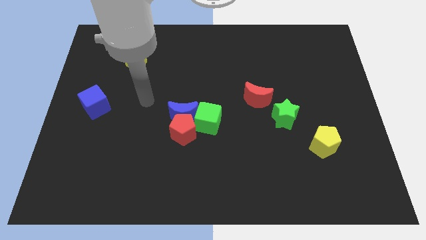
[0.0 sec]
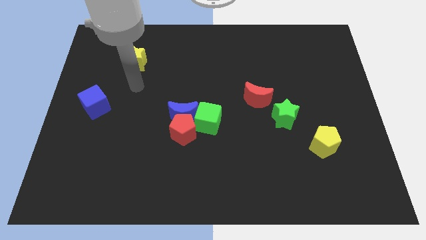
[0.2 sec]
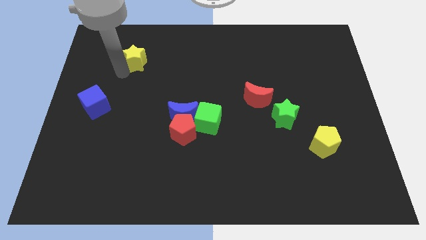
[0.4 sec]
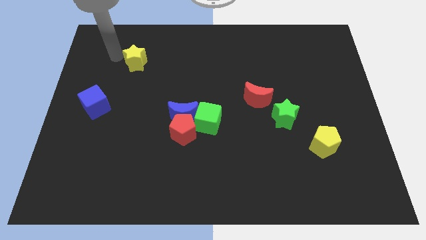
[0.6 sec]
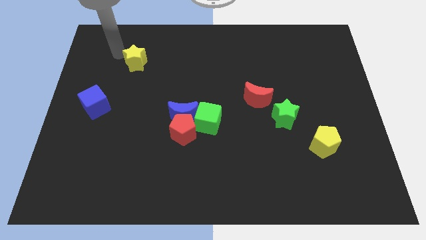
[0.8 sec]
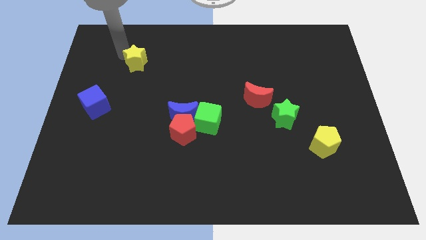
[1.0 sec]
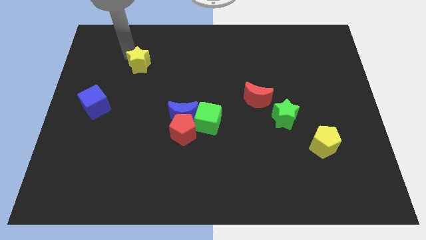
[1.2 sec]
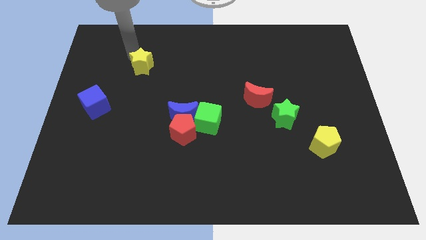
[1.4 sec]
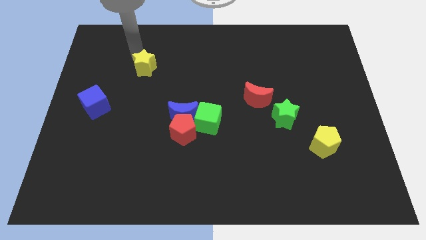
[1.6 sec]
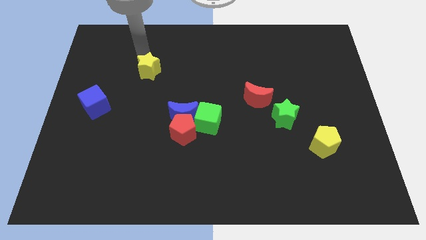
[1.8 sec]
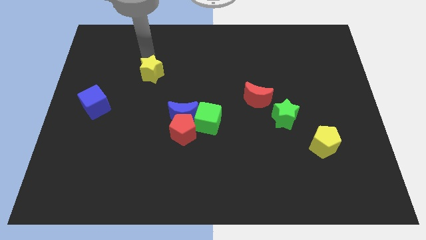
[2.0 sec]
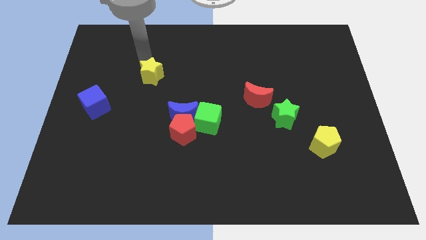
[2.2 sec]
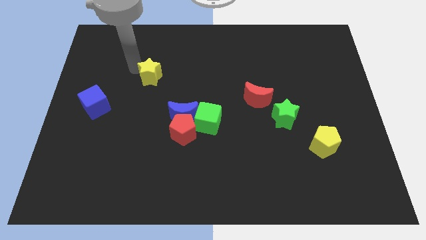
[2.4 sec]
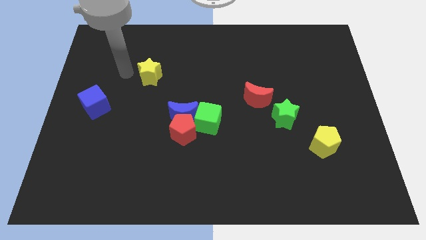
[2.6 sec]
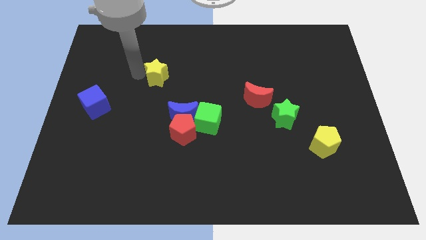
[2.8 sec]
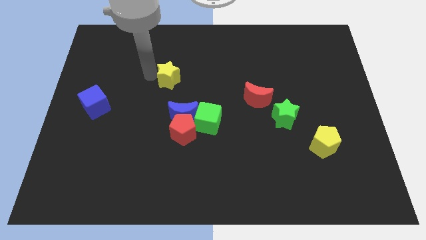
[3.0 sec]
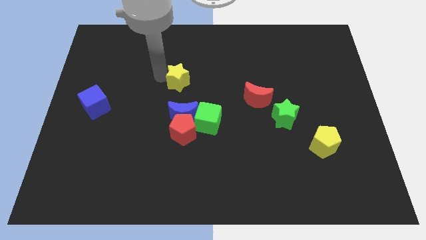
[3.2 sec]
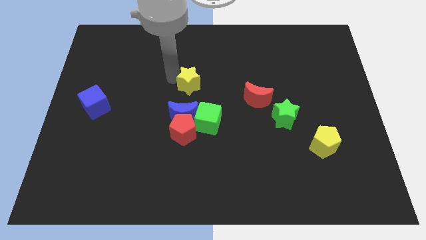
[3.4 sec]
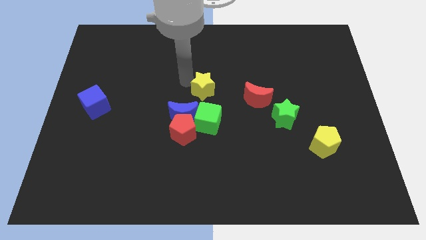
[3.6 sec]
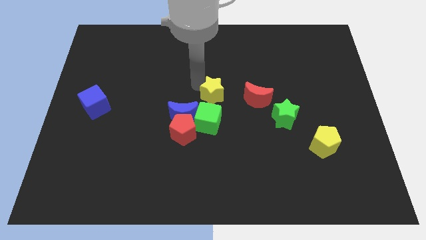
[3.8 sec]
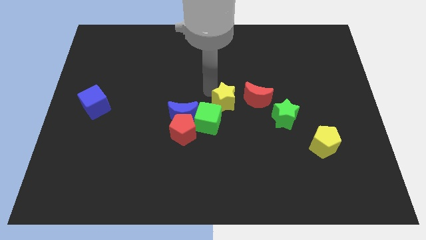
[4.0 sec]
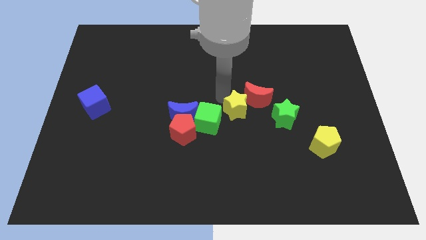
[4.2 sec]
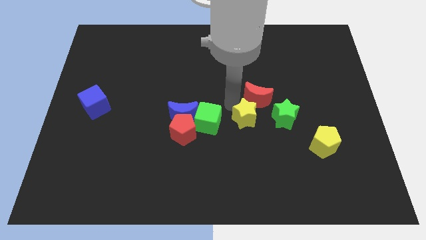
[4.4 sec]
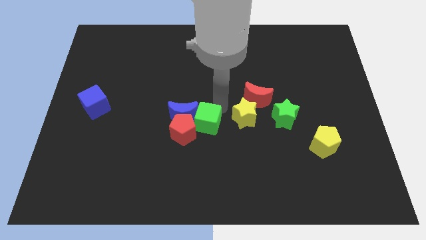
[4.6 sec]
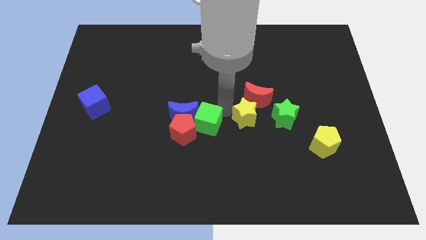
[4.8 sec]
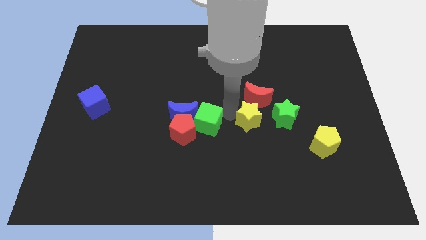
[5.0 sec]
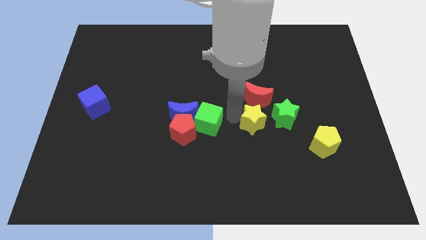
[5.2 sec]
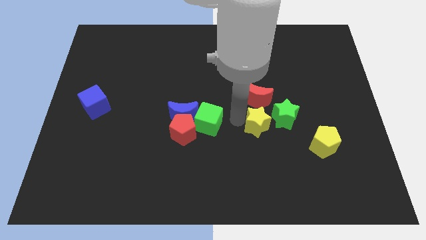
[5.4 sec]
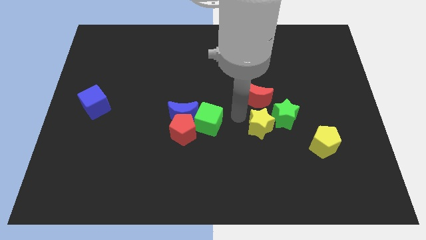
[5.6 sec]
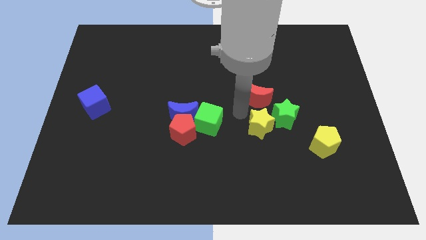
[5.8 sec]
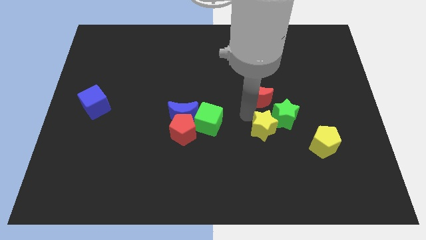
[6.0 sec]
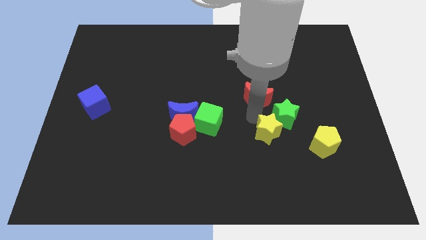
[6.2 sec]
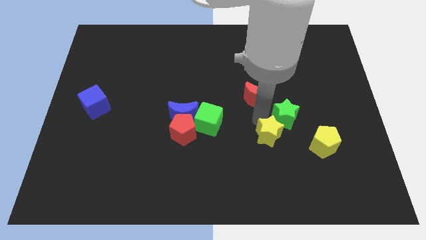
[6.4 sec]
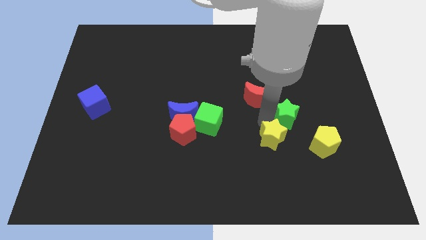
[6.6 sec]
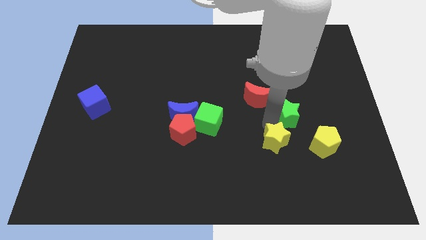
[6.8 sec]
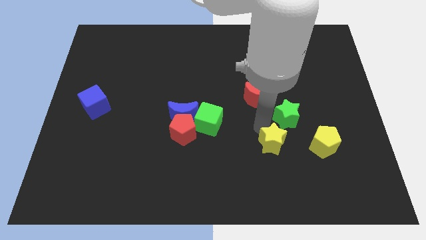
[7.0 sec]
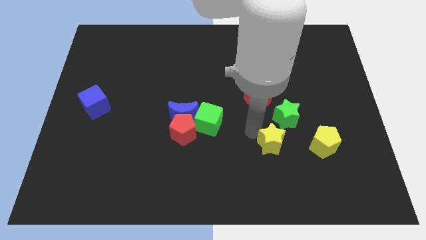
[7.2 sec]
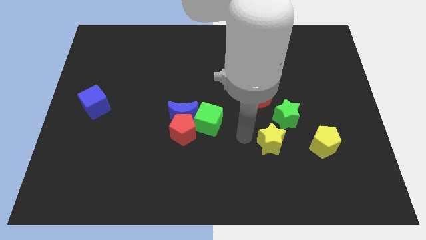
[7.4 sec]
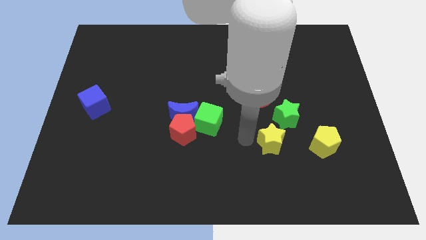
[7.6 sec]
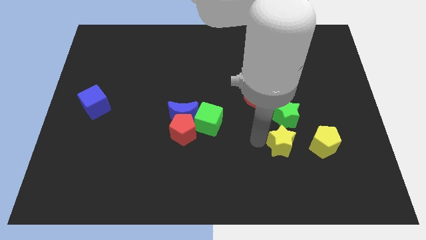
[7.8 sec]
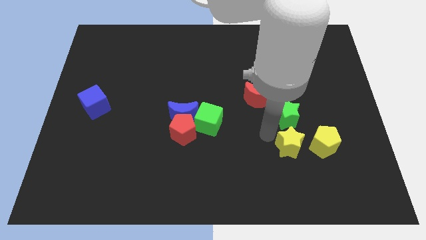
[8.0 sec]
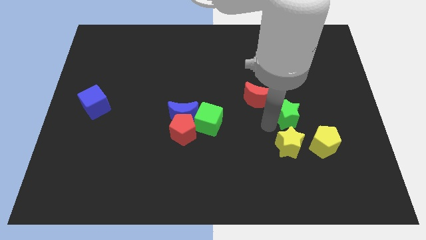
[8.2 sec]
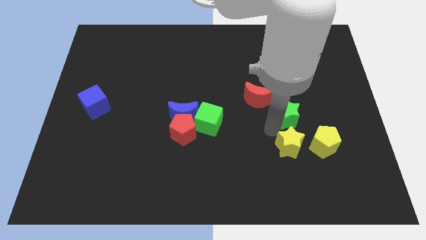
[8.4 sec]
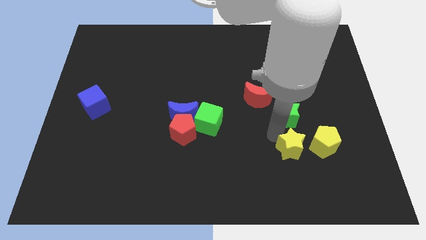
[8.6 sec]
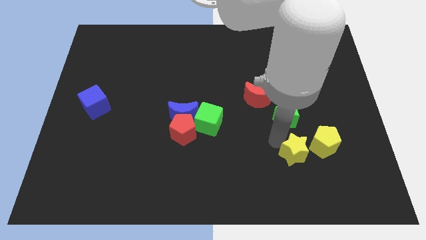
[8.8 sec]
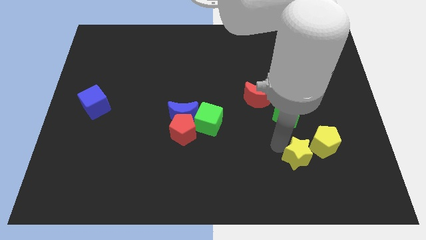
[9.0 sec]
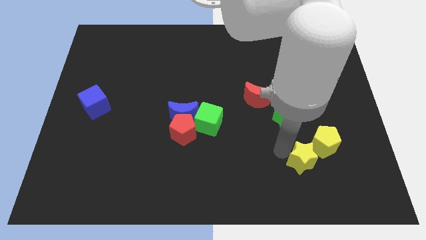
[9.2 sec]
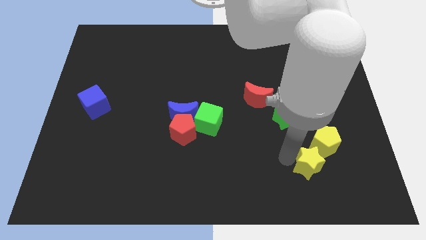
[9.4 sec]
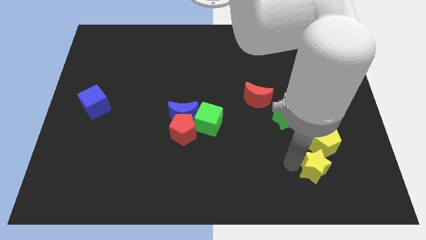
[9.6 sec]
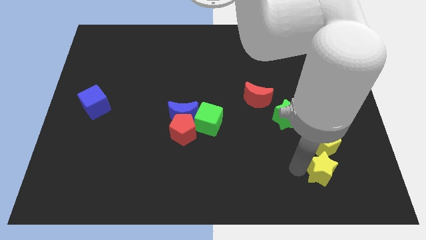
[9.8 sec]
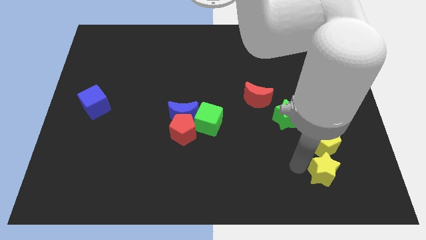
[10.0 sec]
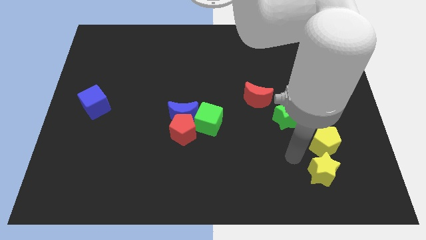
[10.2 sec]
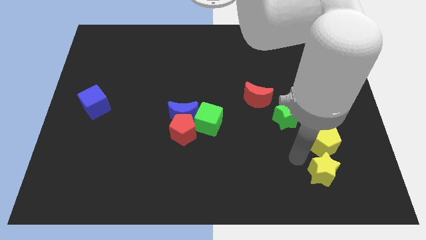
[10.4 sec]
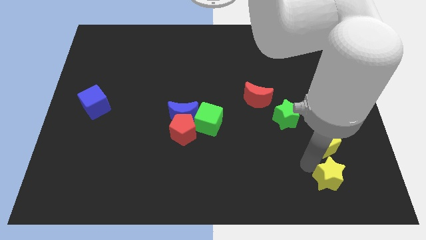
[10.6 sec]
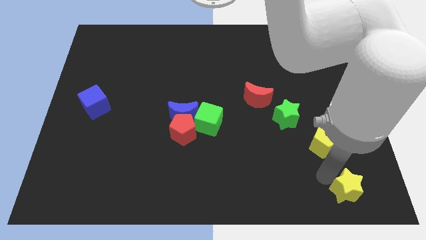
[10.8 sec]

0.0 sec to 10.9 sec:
push the yellow star to the bottom right of the board
